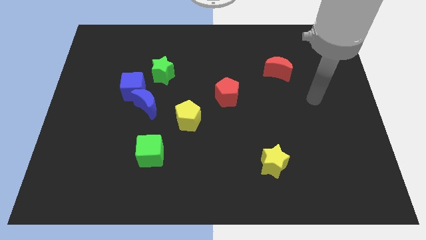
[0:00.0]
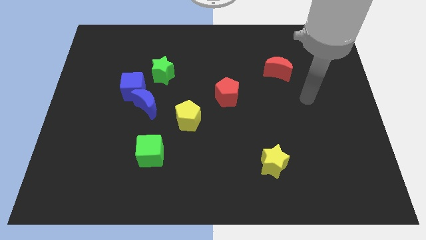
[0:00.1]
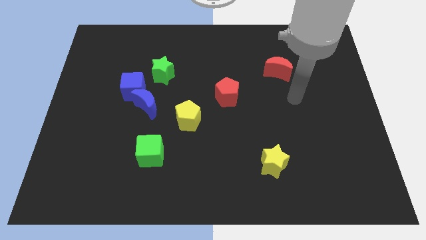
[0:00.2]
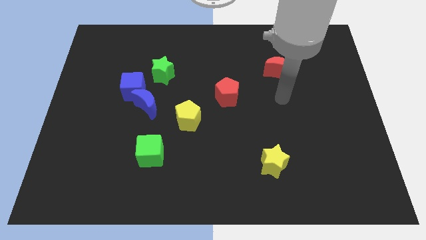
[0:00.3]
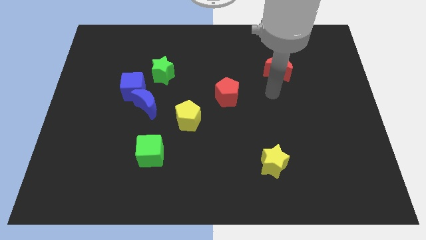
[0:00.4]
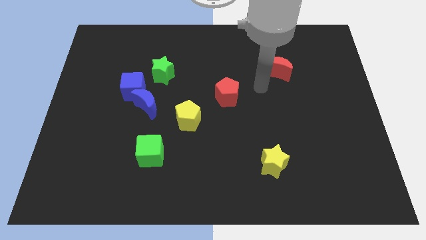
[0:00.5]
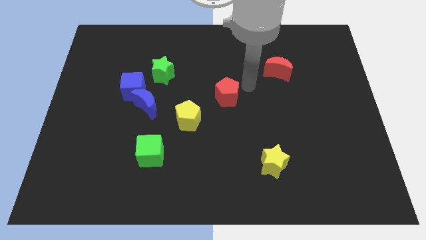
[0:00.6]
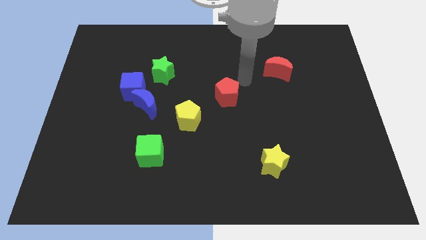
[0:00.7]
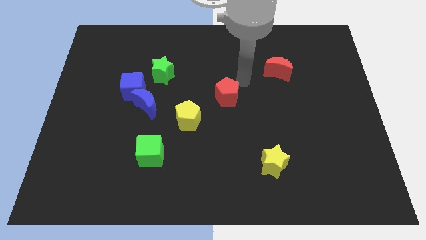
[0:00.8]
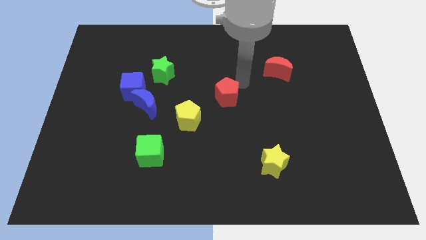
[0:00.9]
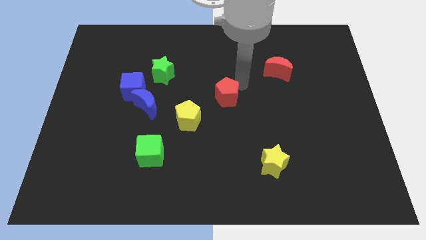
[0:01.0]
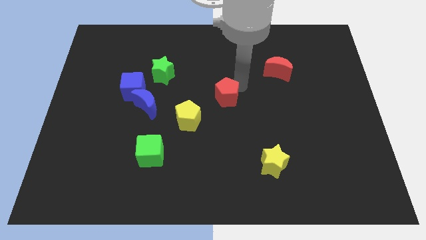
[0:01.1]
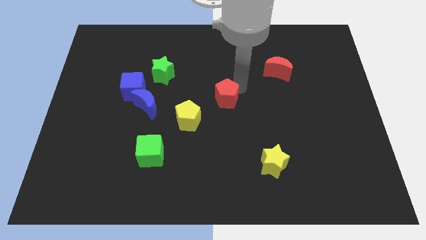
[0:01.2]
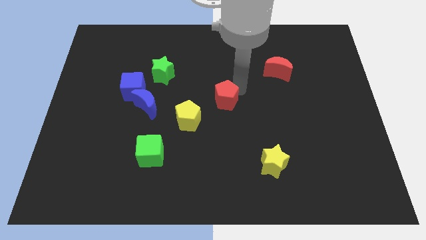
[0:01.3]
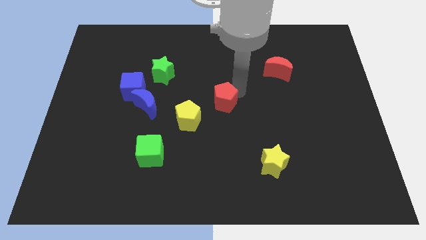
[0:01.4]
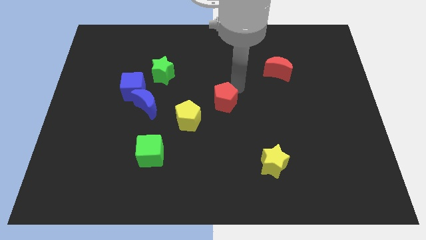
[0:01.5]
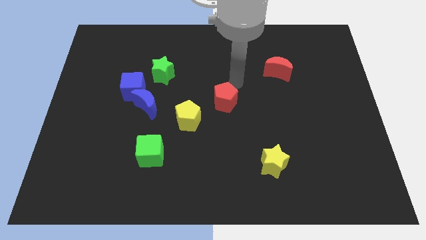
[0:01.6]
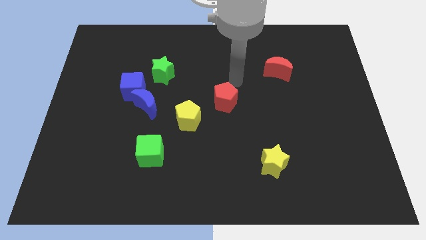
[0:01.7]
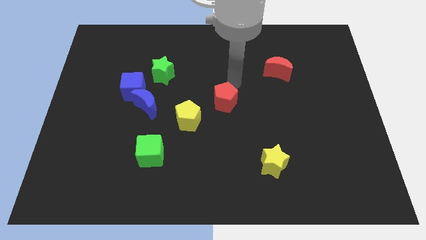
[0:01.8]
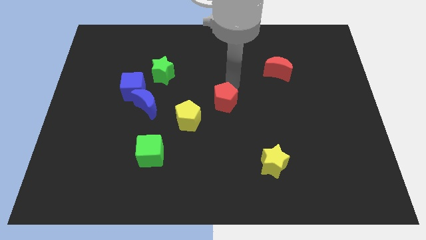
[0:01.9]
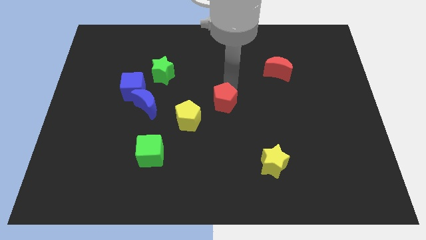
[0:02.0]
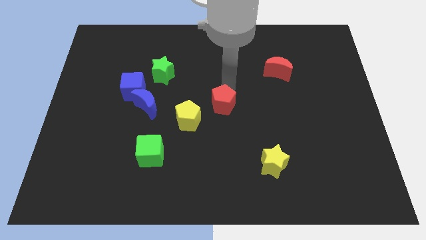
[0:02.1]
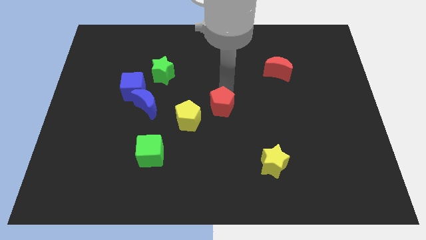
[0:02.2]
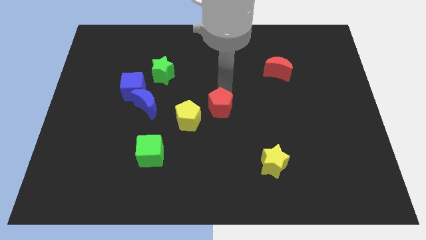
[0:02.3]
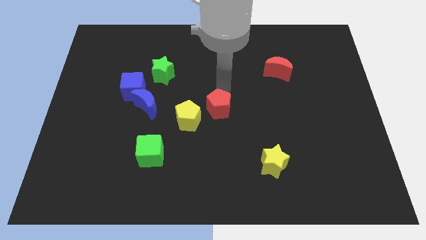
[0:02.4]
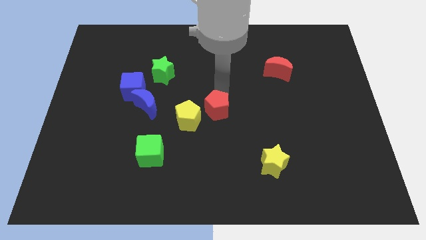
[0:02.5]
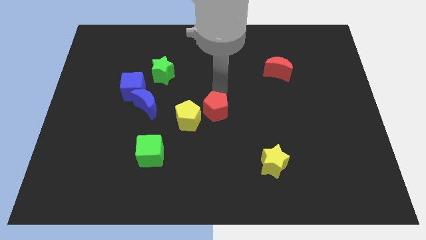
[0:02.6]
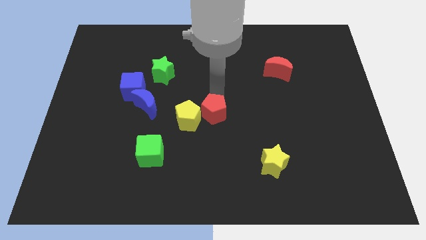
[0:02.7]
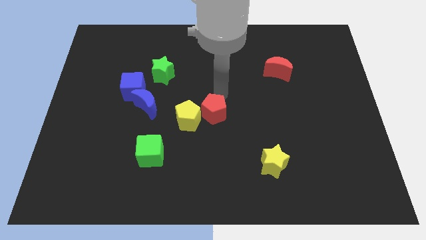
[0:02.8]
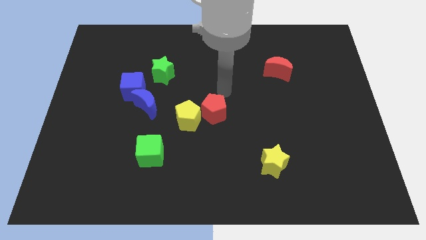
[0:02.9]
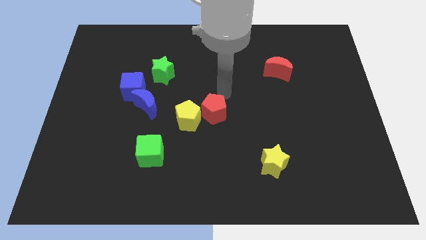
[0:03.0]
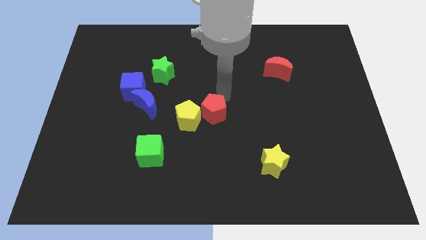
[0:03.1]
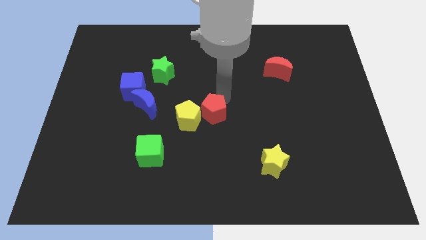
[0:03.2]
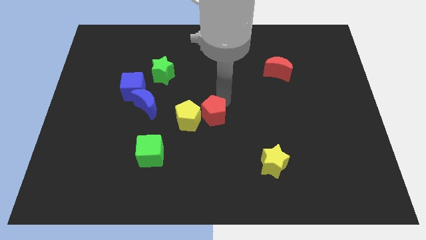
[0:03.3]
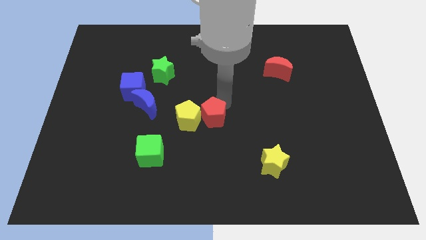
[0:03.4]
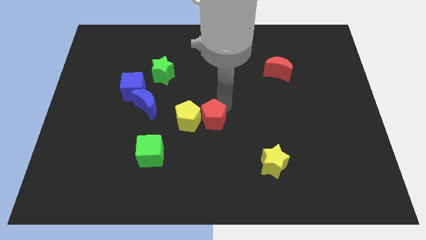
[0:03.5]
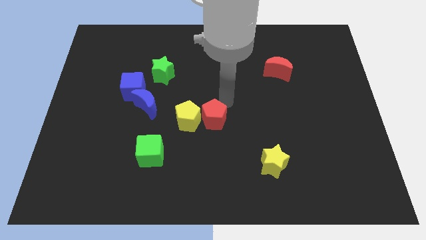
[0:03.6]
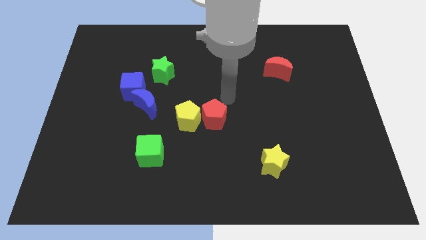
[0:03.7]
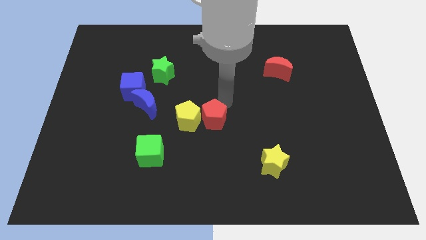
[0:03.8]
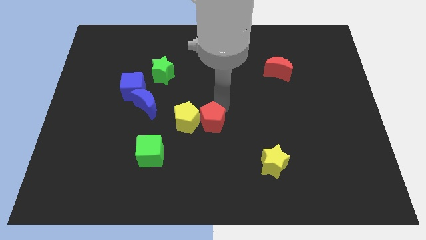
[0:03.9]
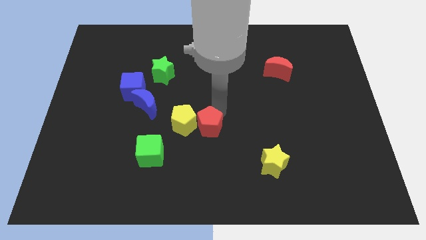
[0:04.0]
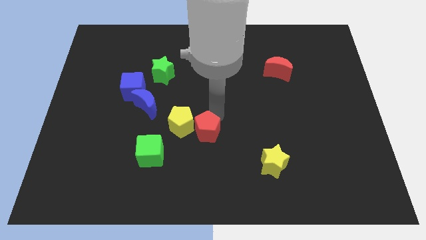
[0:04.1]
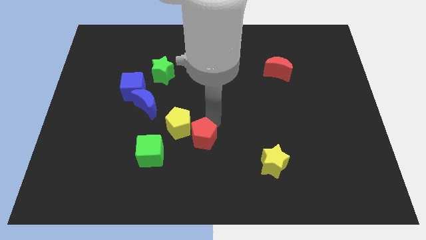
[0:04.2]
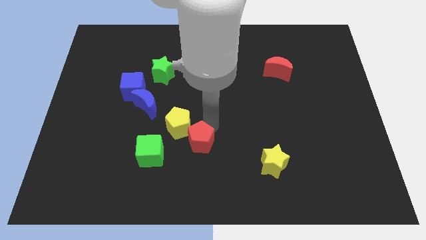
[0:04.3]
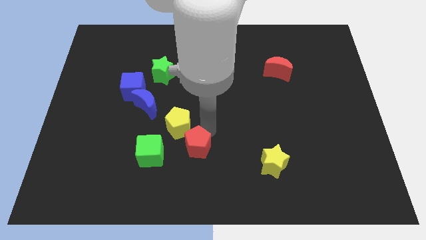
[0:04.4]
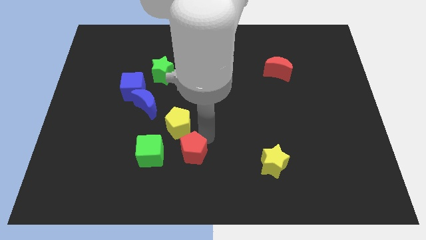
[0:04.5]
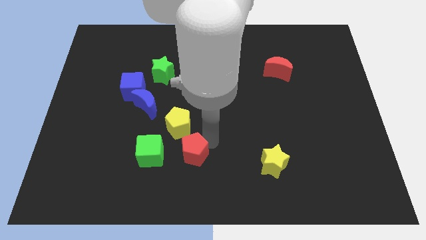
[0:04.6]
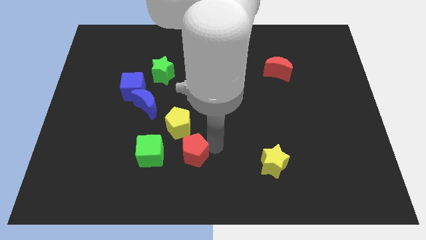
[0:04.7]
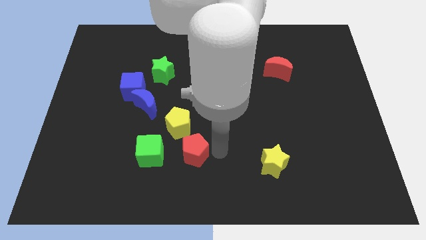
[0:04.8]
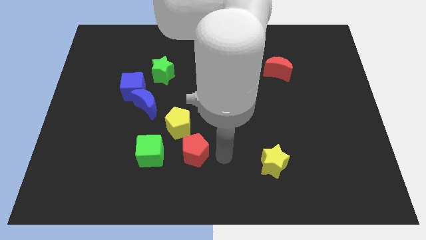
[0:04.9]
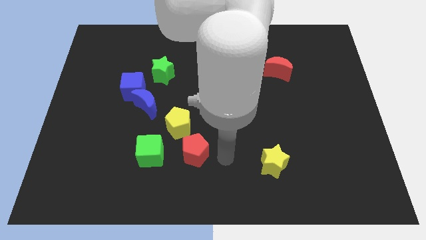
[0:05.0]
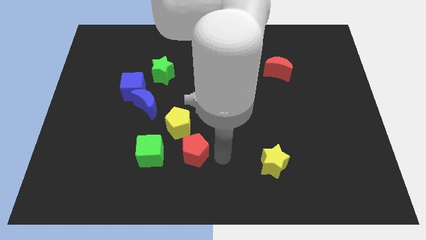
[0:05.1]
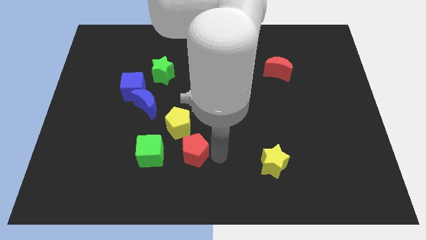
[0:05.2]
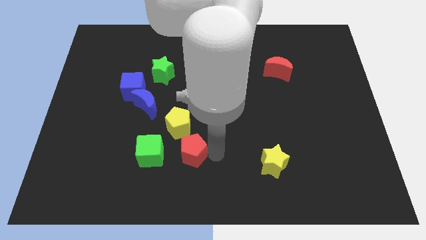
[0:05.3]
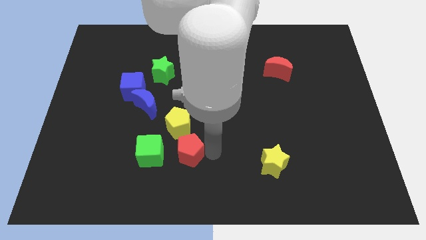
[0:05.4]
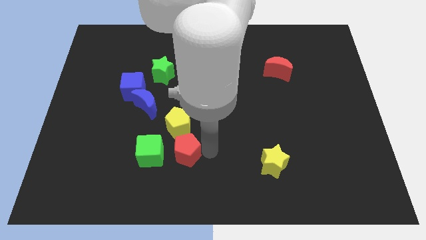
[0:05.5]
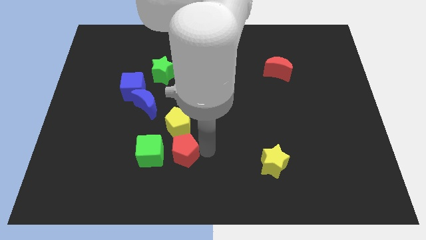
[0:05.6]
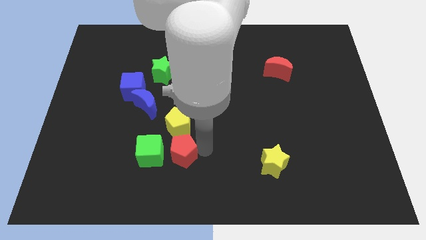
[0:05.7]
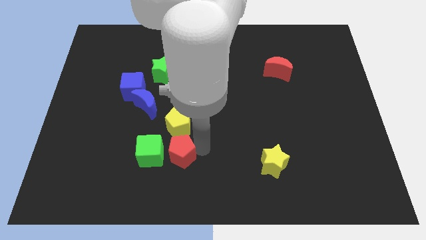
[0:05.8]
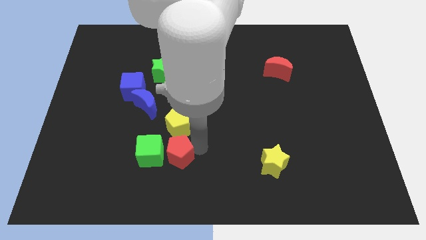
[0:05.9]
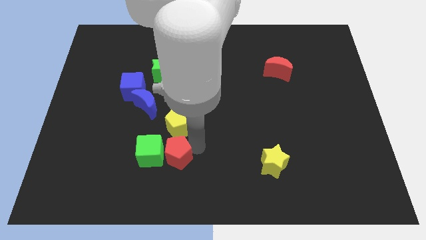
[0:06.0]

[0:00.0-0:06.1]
push the red pentagon close to the green cube
